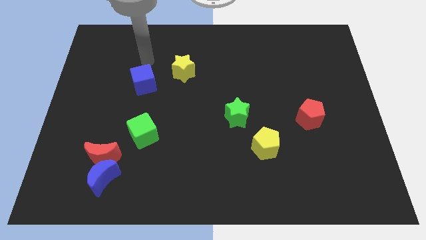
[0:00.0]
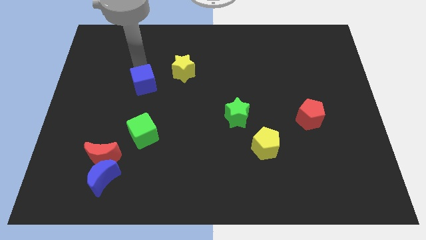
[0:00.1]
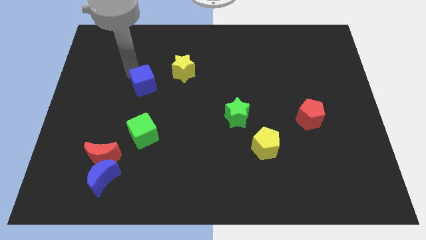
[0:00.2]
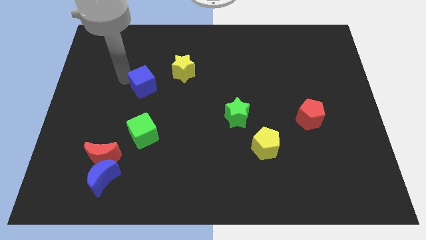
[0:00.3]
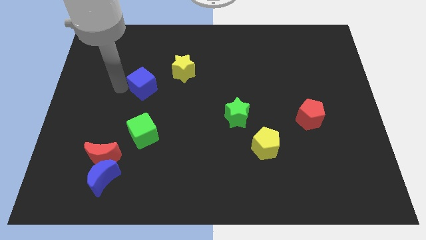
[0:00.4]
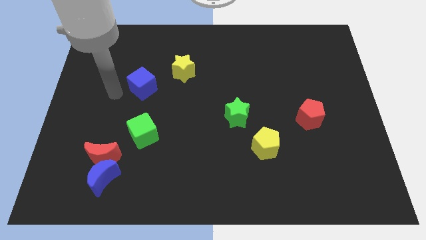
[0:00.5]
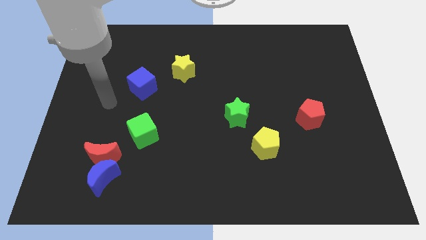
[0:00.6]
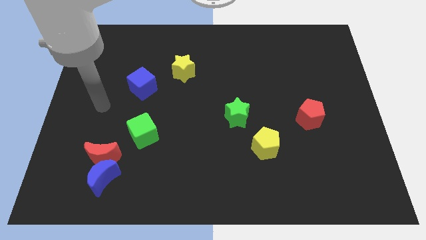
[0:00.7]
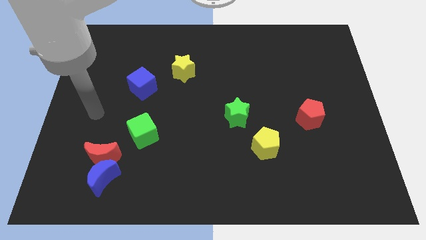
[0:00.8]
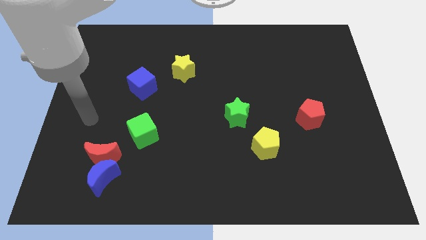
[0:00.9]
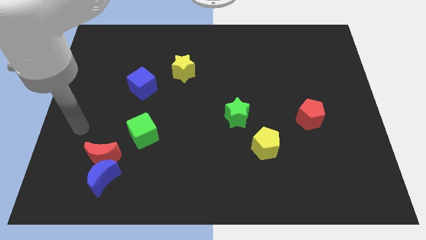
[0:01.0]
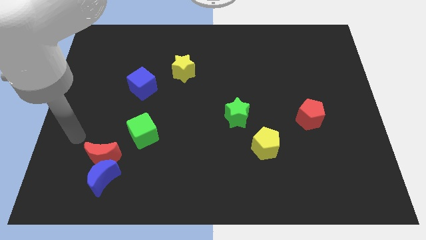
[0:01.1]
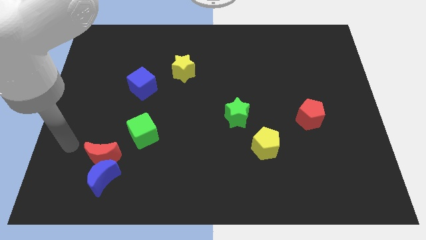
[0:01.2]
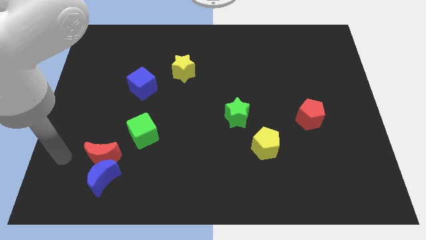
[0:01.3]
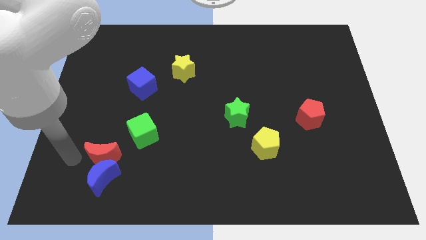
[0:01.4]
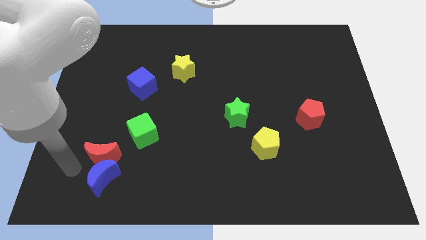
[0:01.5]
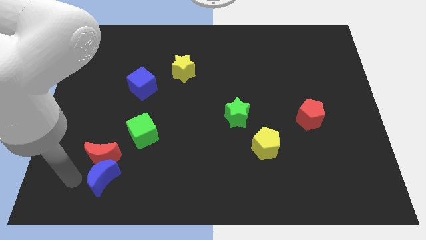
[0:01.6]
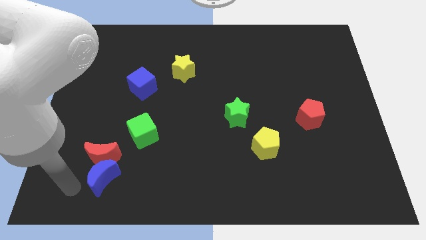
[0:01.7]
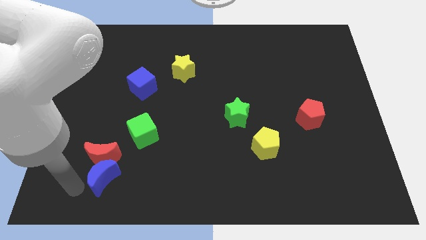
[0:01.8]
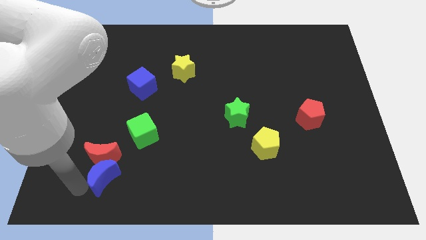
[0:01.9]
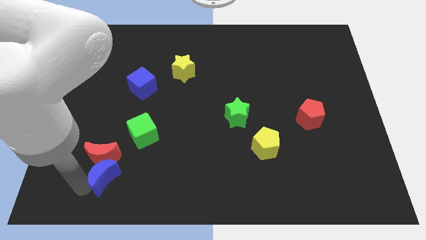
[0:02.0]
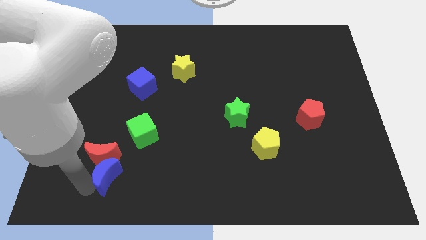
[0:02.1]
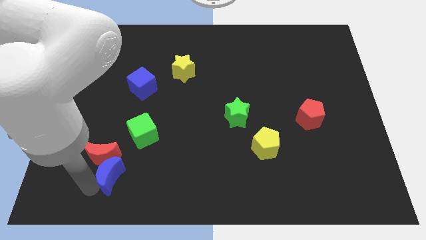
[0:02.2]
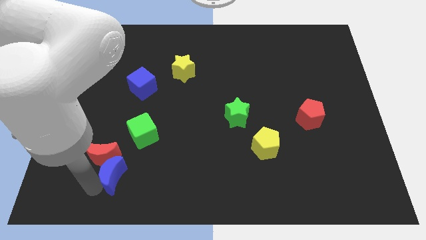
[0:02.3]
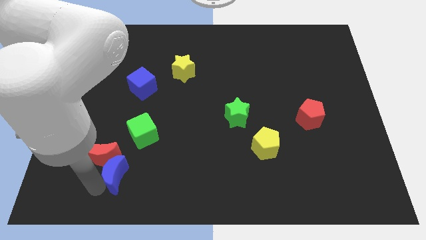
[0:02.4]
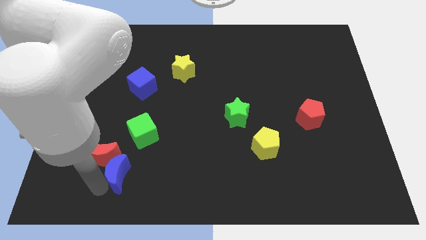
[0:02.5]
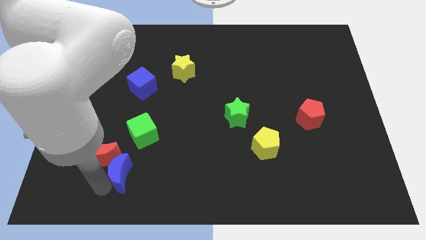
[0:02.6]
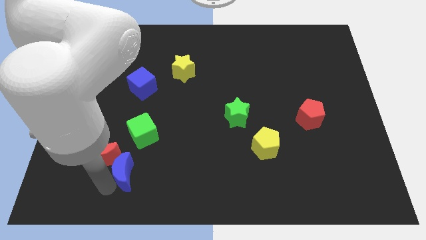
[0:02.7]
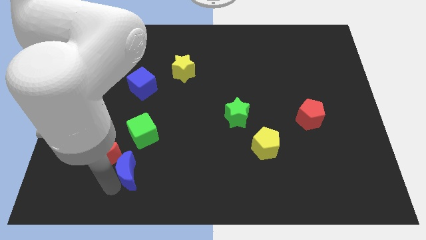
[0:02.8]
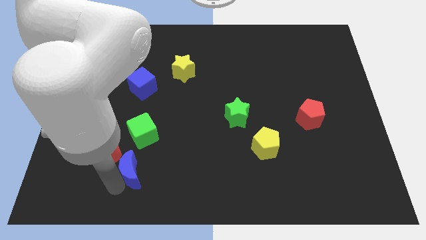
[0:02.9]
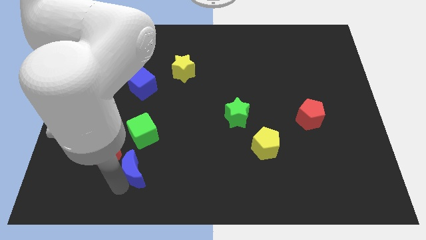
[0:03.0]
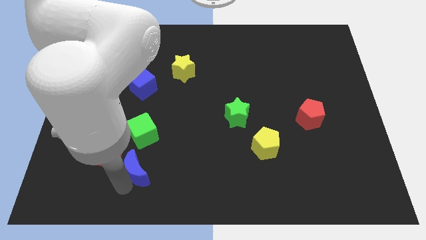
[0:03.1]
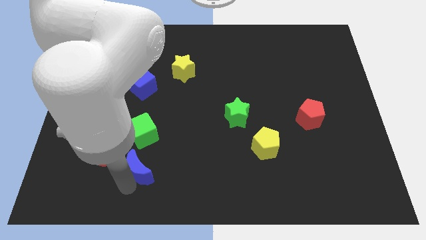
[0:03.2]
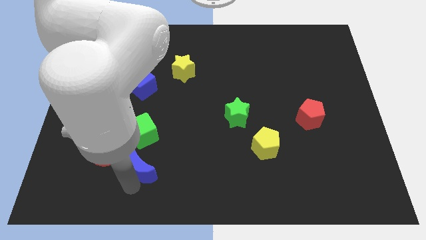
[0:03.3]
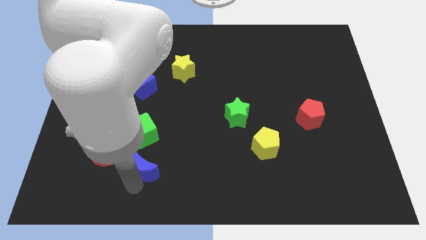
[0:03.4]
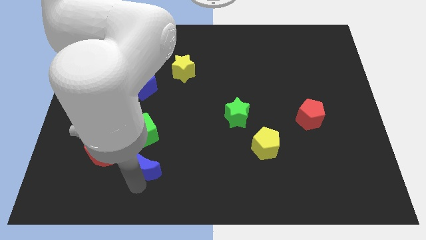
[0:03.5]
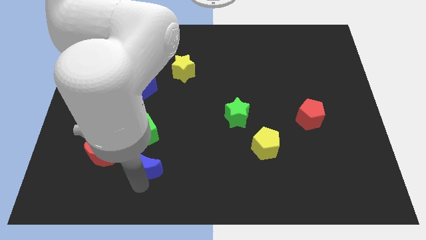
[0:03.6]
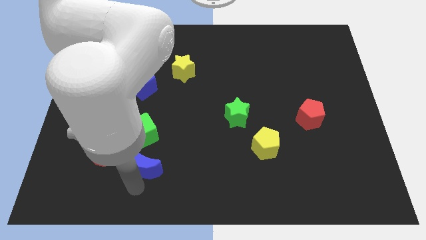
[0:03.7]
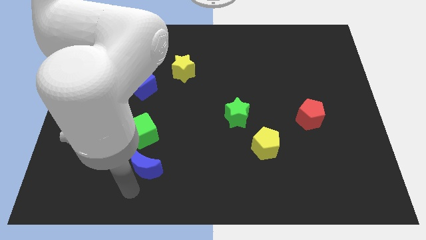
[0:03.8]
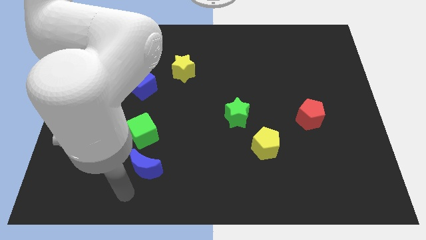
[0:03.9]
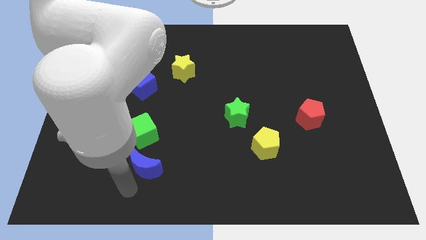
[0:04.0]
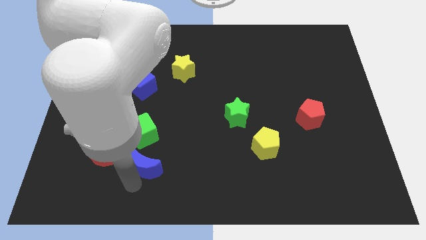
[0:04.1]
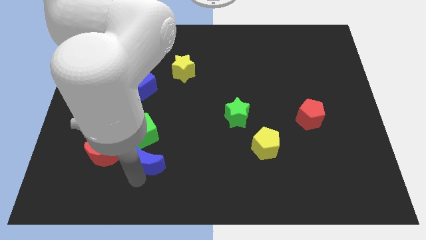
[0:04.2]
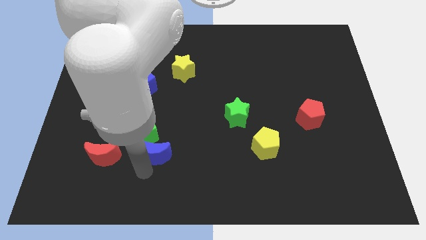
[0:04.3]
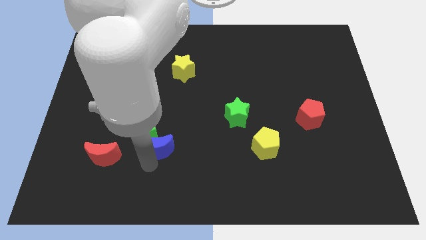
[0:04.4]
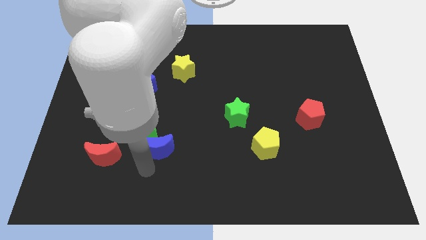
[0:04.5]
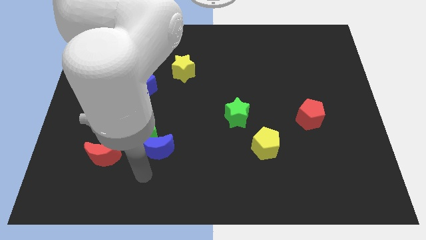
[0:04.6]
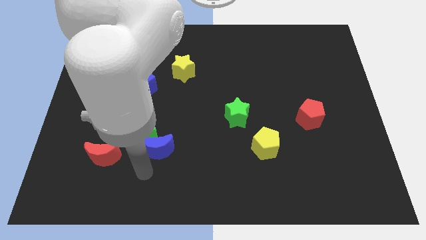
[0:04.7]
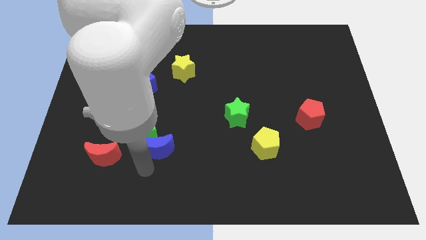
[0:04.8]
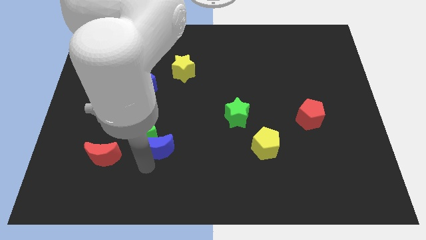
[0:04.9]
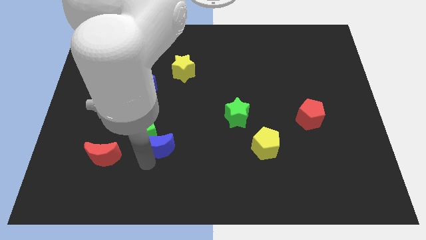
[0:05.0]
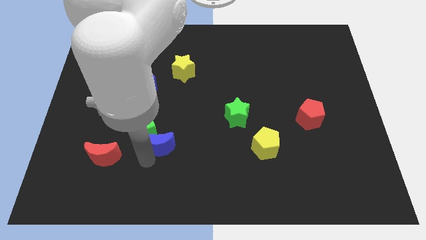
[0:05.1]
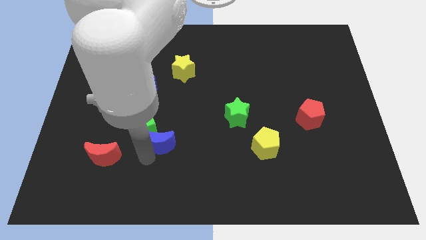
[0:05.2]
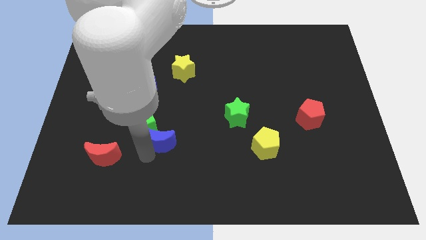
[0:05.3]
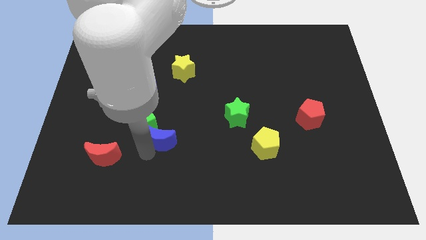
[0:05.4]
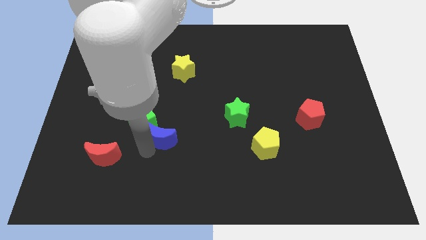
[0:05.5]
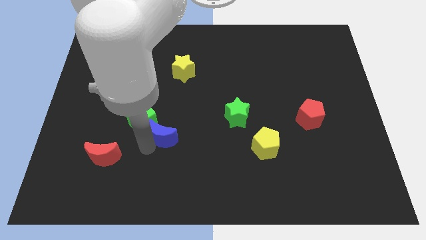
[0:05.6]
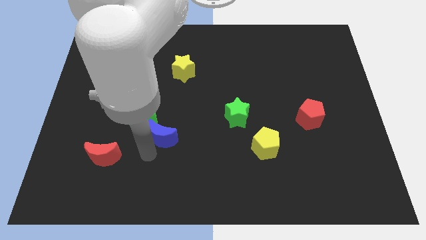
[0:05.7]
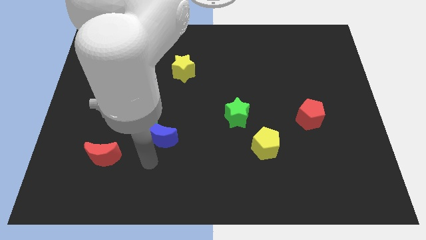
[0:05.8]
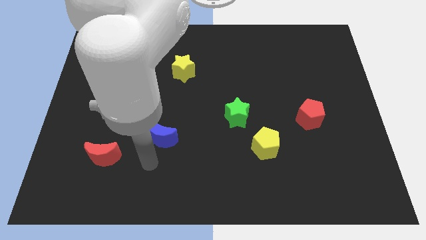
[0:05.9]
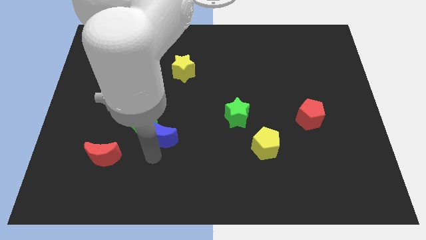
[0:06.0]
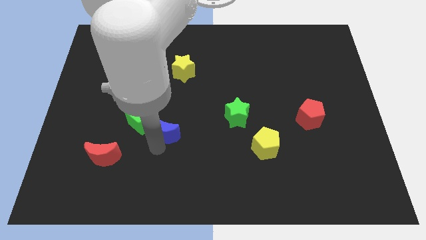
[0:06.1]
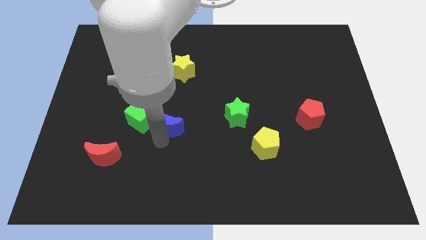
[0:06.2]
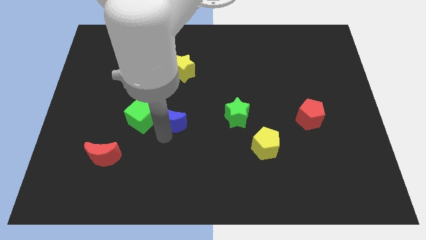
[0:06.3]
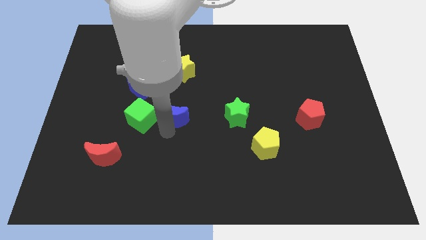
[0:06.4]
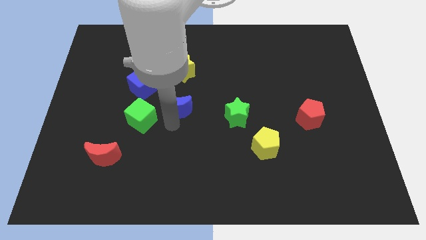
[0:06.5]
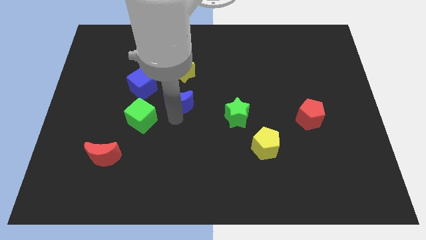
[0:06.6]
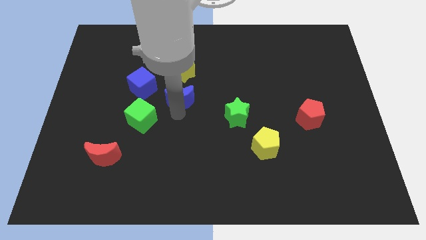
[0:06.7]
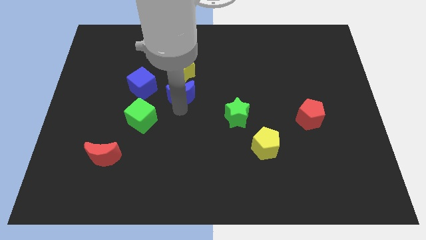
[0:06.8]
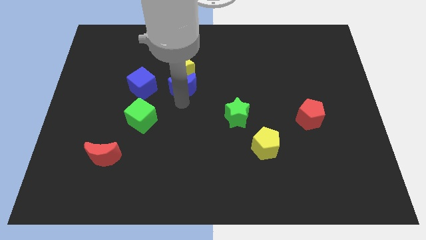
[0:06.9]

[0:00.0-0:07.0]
move the blue moon next to the yellow star

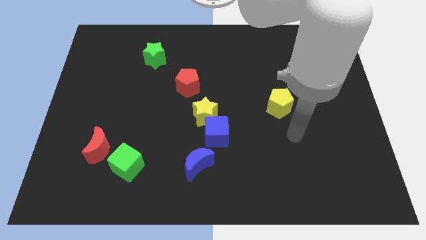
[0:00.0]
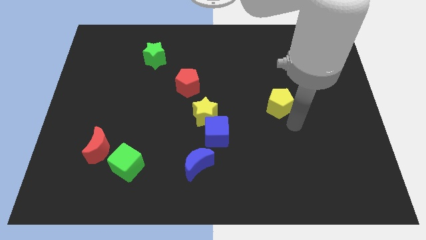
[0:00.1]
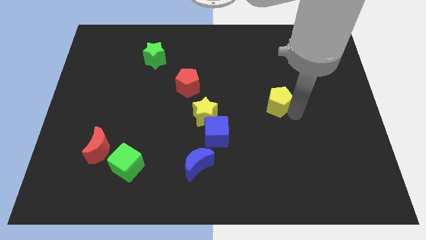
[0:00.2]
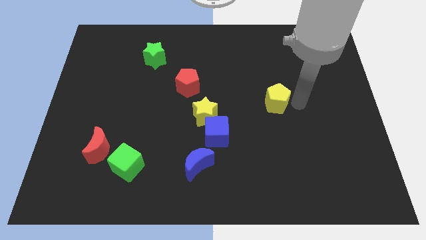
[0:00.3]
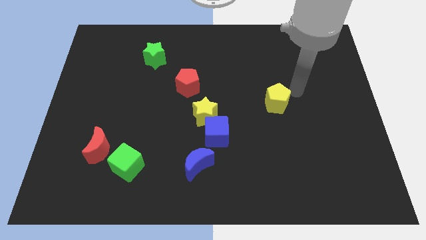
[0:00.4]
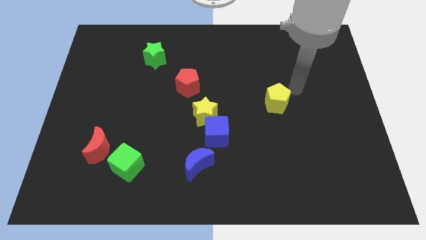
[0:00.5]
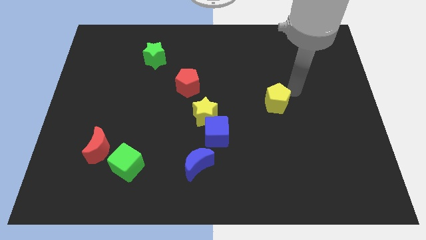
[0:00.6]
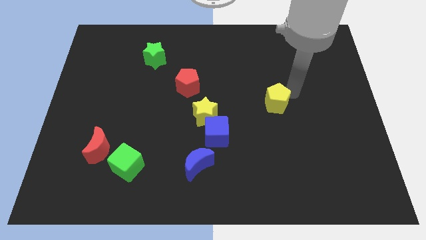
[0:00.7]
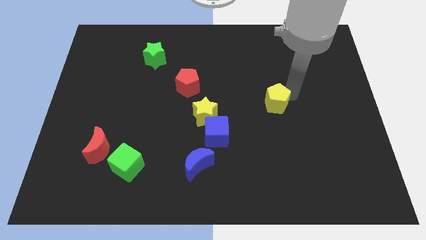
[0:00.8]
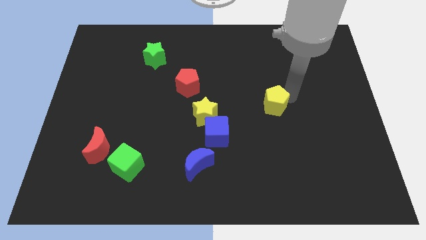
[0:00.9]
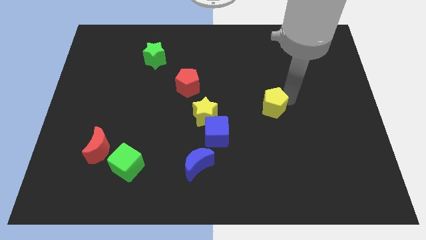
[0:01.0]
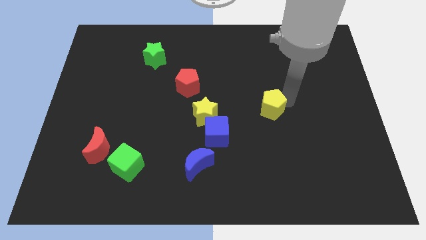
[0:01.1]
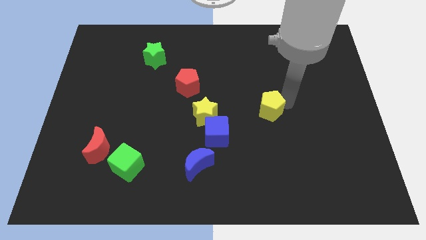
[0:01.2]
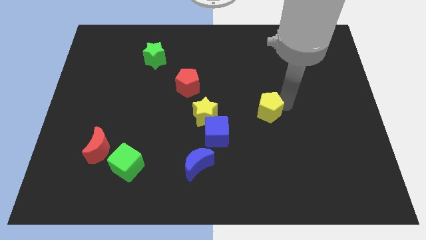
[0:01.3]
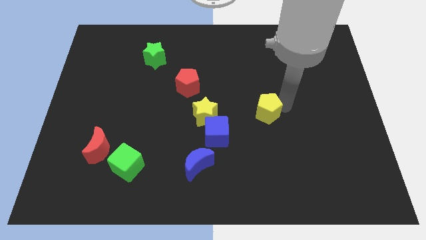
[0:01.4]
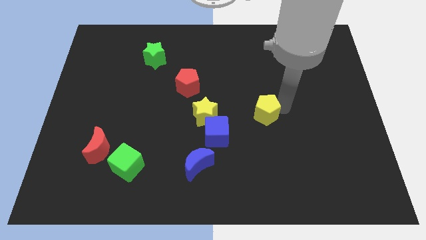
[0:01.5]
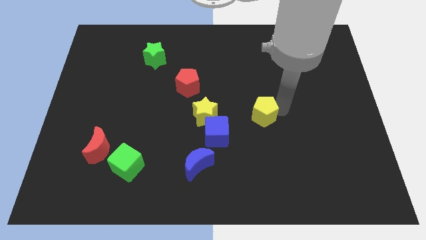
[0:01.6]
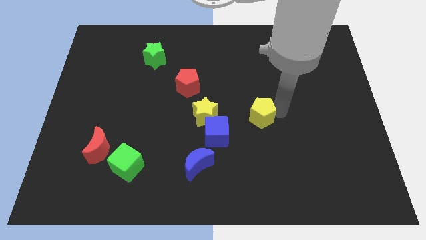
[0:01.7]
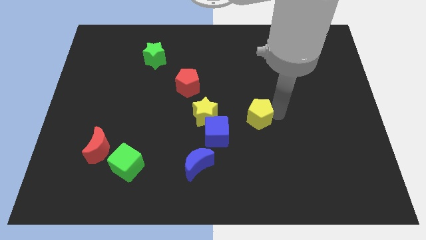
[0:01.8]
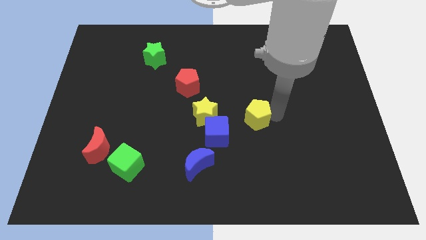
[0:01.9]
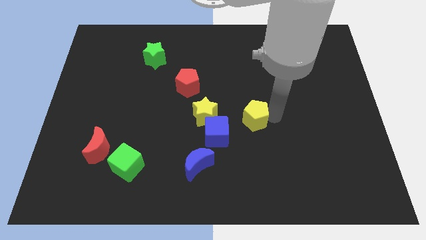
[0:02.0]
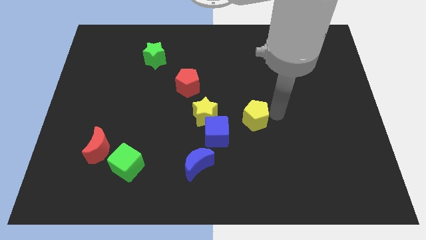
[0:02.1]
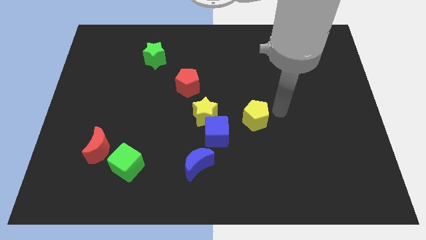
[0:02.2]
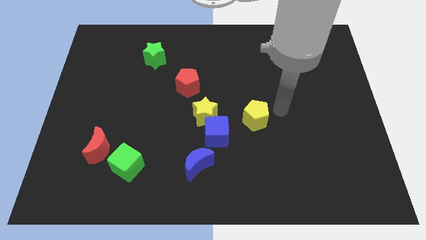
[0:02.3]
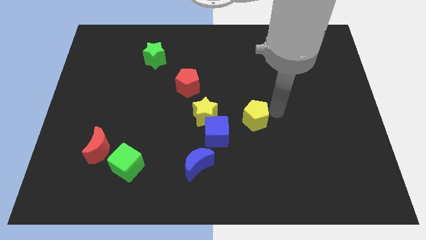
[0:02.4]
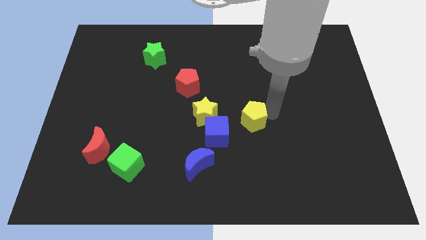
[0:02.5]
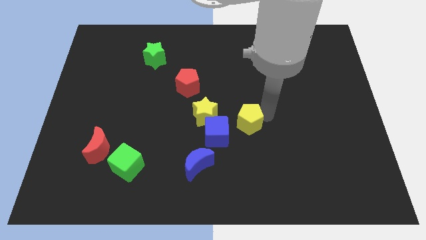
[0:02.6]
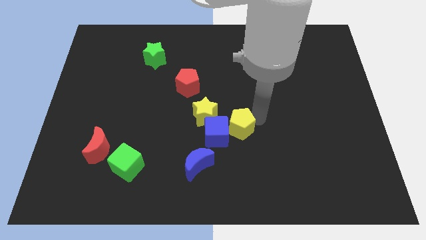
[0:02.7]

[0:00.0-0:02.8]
move the yellow pentagon close to the blue cube
